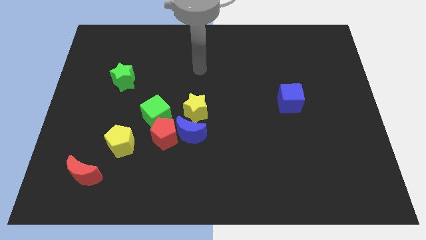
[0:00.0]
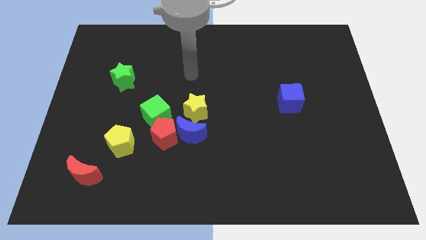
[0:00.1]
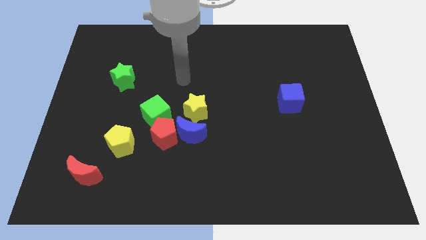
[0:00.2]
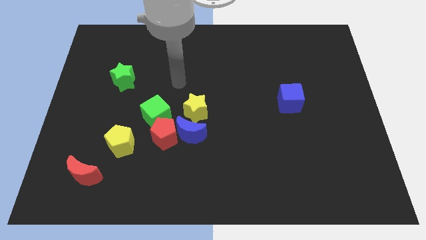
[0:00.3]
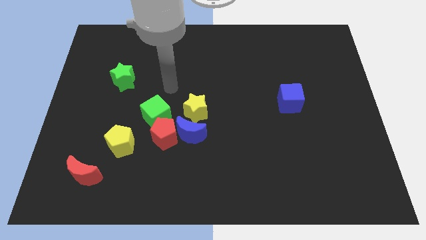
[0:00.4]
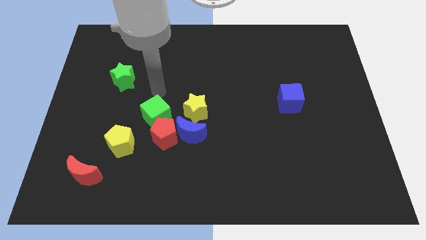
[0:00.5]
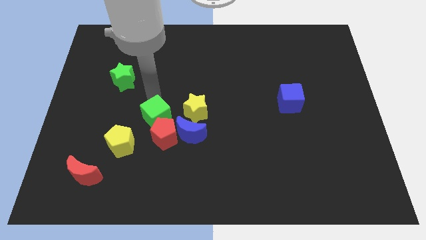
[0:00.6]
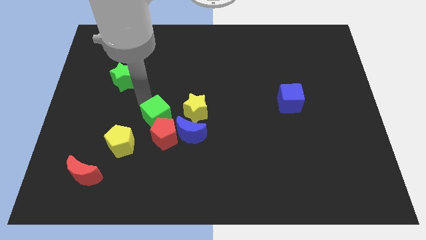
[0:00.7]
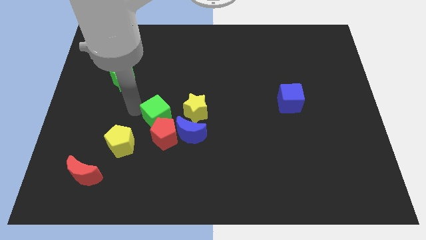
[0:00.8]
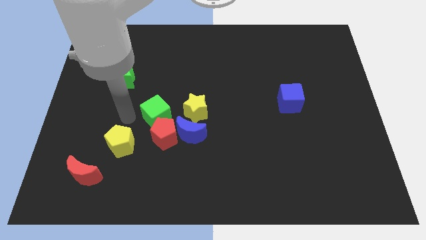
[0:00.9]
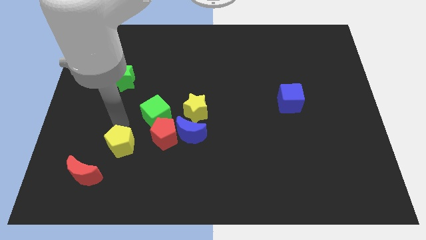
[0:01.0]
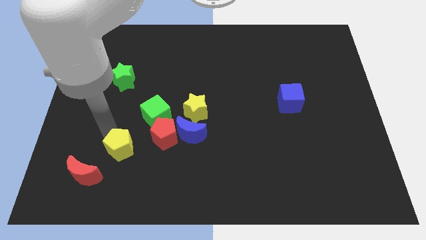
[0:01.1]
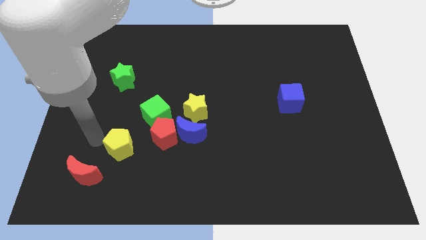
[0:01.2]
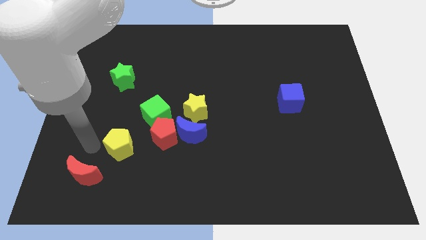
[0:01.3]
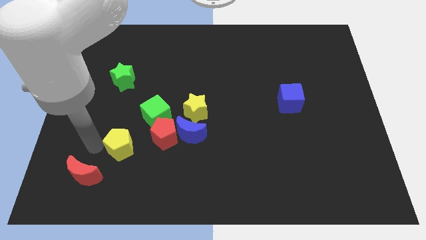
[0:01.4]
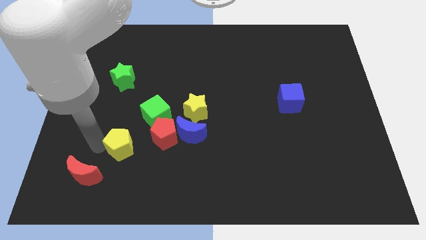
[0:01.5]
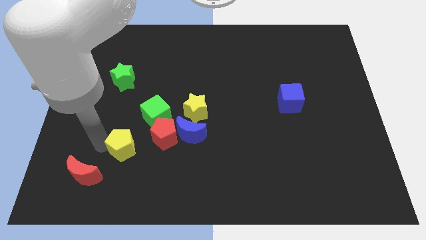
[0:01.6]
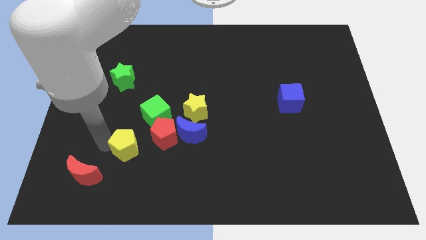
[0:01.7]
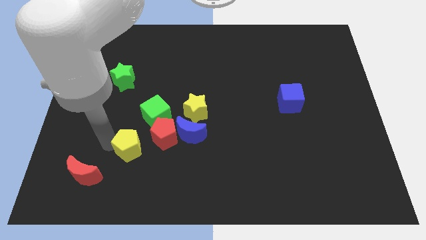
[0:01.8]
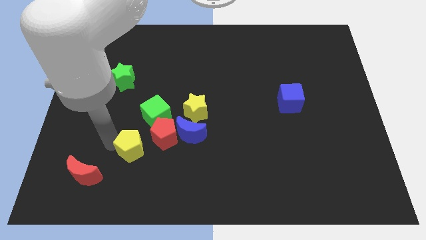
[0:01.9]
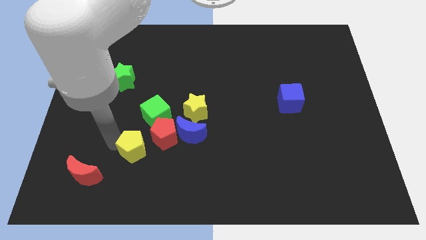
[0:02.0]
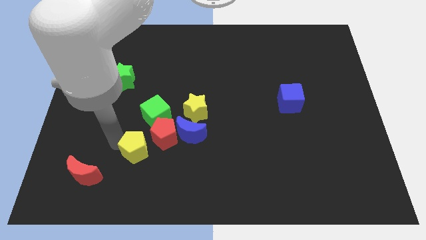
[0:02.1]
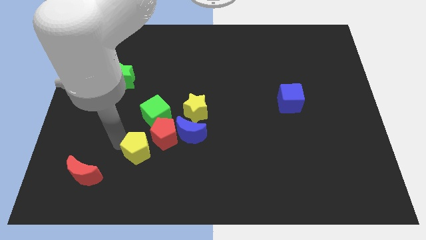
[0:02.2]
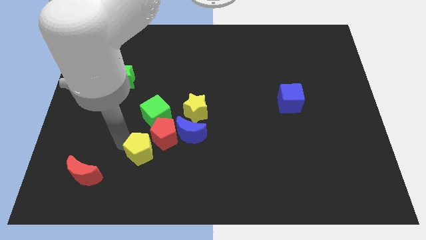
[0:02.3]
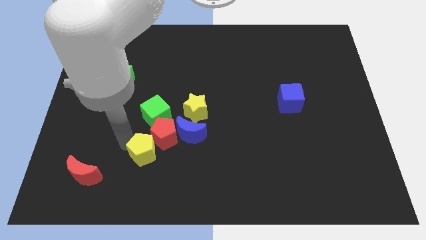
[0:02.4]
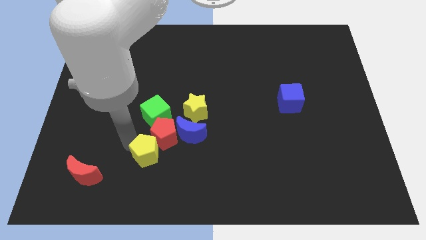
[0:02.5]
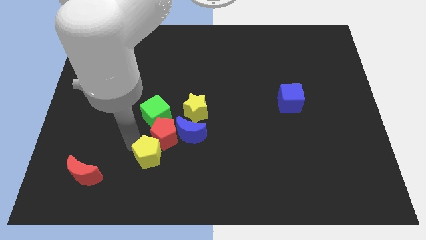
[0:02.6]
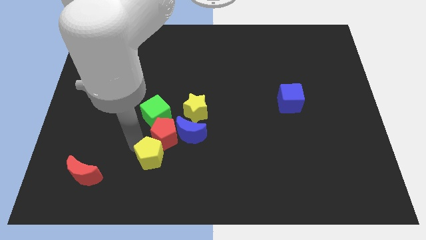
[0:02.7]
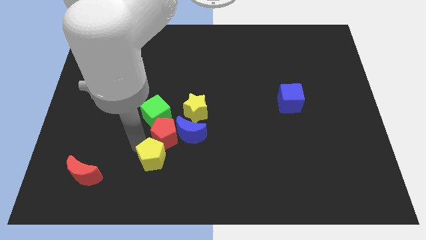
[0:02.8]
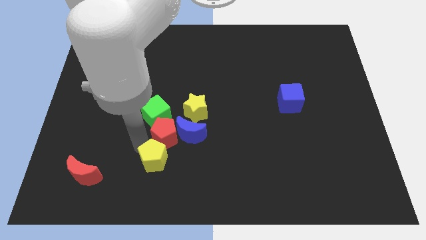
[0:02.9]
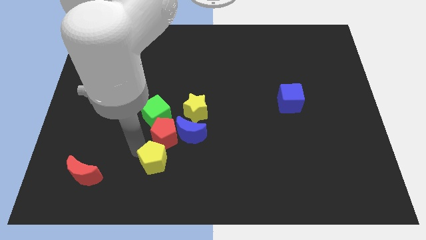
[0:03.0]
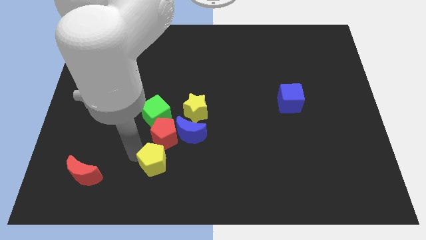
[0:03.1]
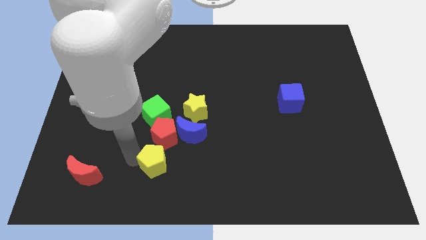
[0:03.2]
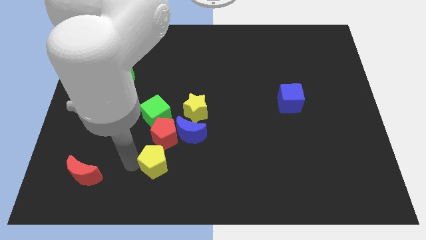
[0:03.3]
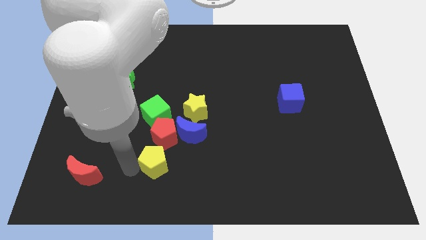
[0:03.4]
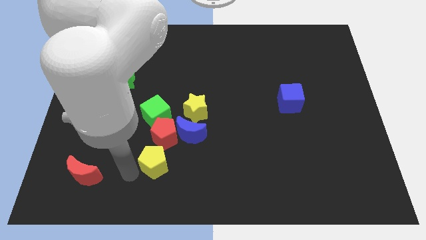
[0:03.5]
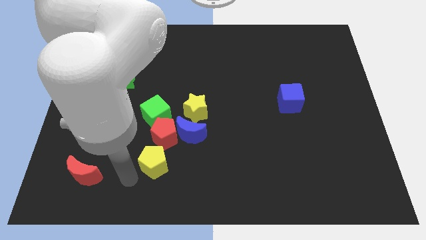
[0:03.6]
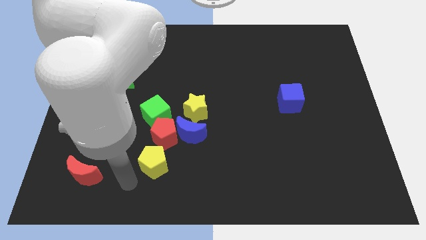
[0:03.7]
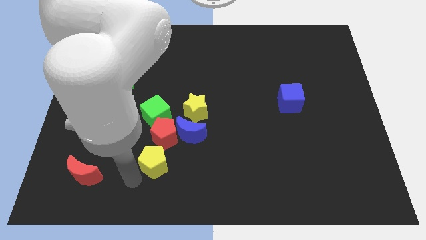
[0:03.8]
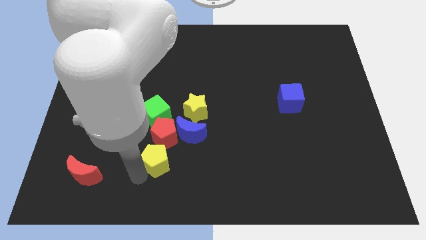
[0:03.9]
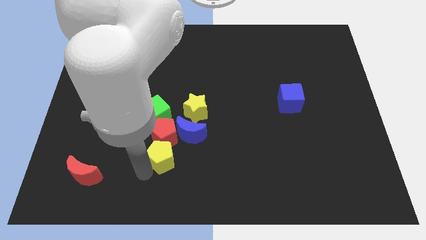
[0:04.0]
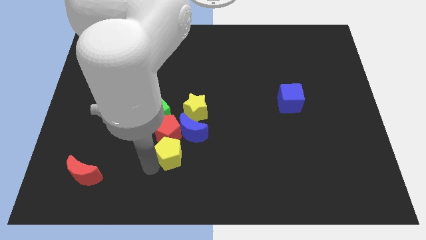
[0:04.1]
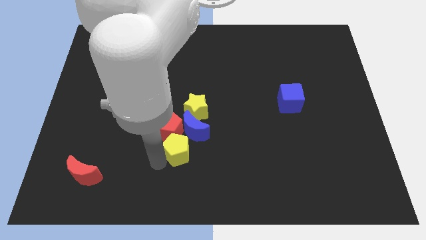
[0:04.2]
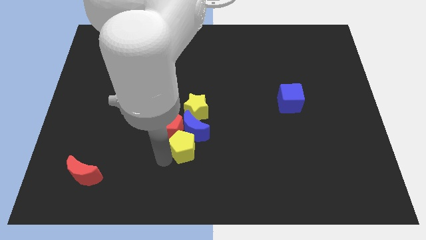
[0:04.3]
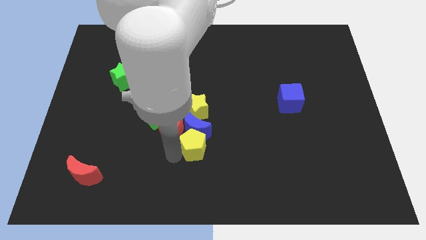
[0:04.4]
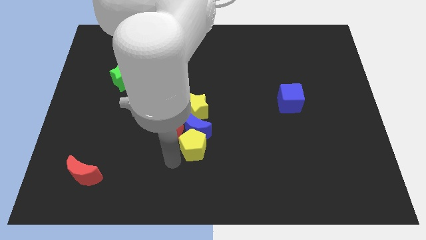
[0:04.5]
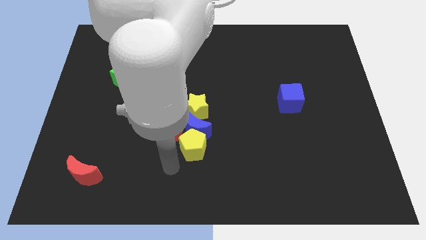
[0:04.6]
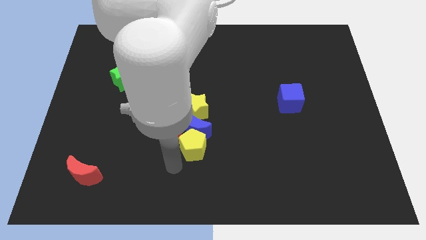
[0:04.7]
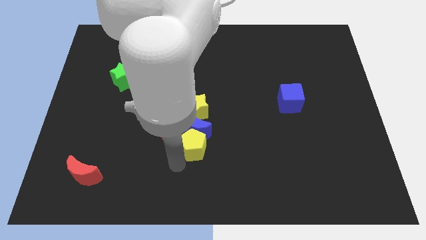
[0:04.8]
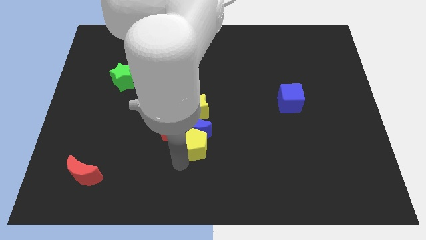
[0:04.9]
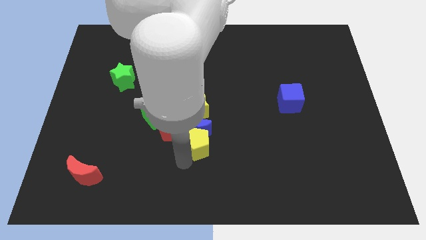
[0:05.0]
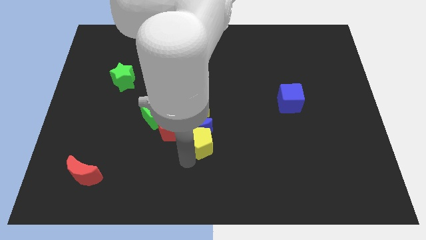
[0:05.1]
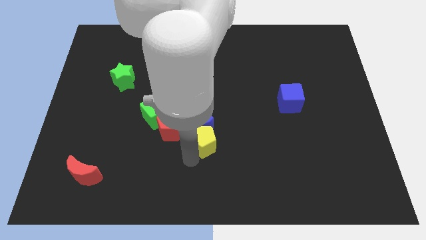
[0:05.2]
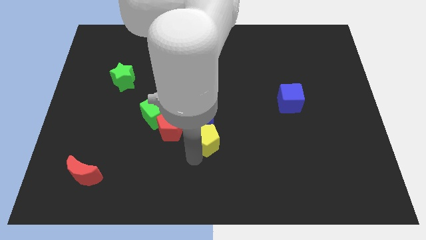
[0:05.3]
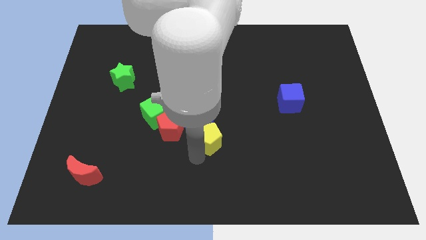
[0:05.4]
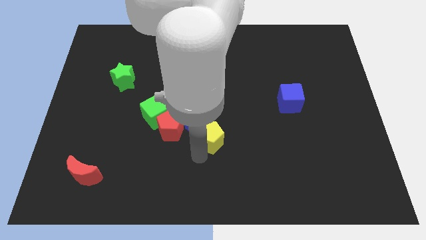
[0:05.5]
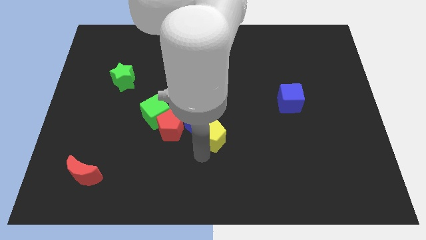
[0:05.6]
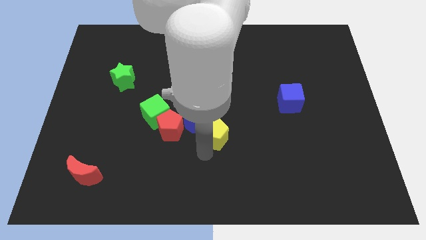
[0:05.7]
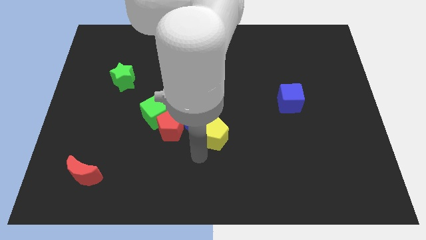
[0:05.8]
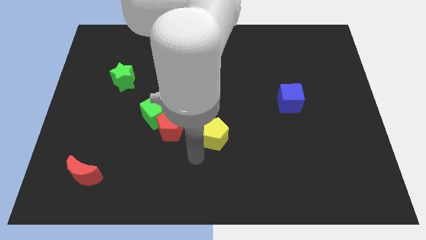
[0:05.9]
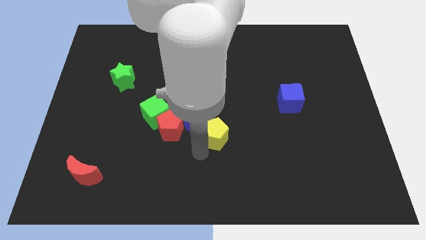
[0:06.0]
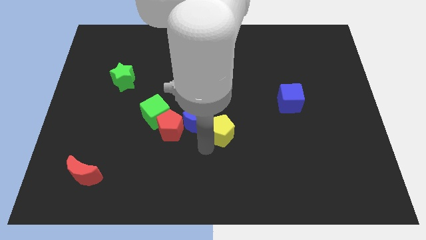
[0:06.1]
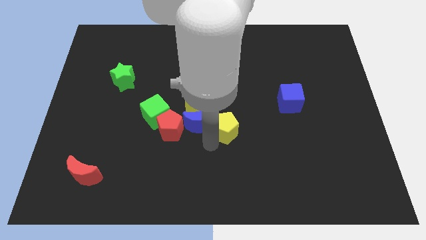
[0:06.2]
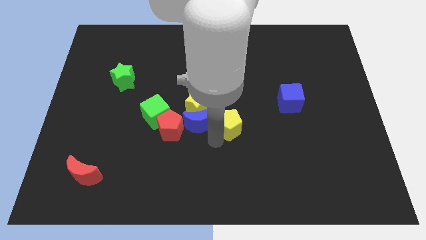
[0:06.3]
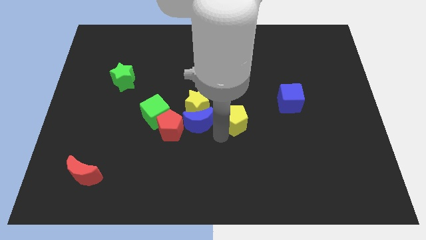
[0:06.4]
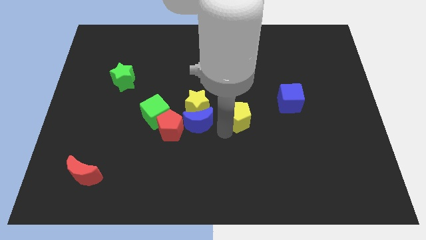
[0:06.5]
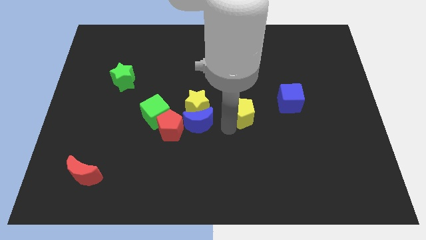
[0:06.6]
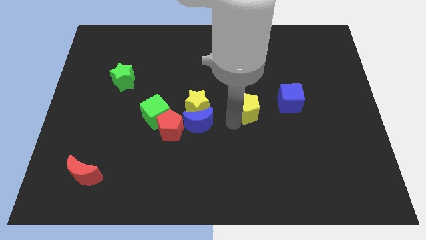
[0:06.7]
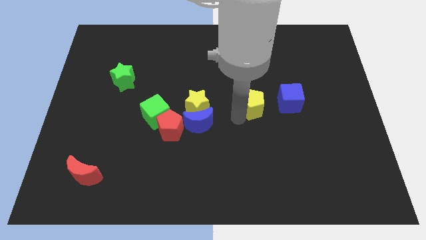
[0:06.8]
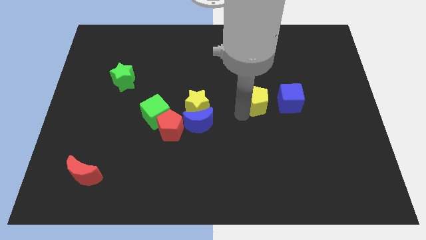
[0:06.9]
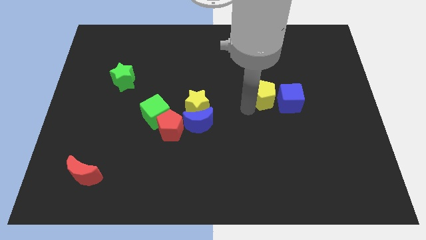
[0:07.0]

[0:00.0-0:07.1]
put the yellow pentagon next to the blue cube
